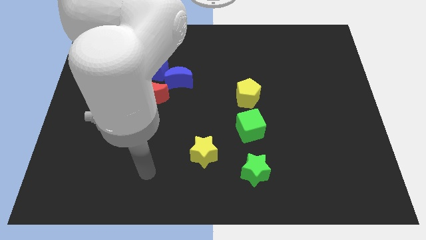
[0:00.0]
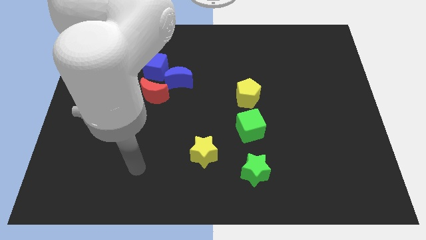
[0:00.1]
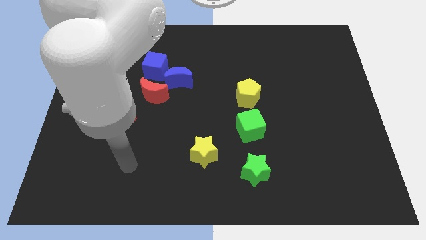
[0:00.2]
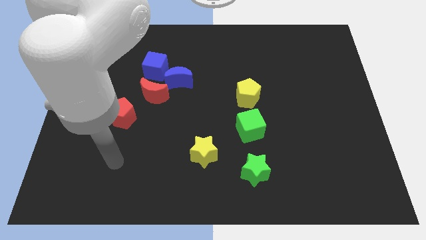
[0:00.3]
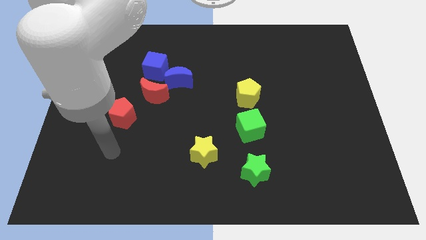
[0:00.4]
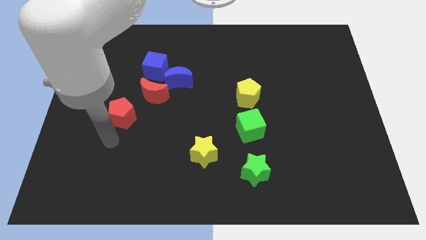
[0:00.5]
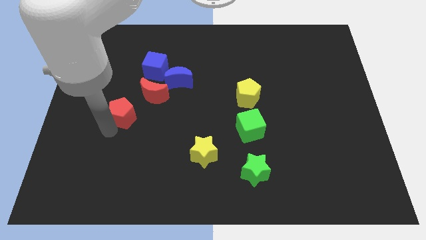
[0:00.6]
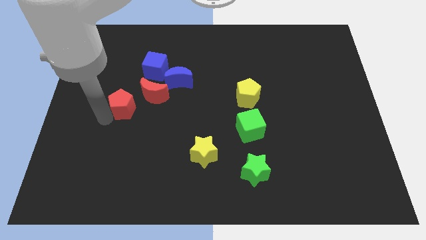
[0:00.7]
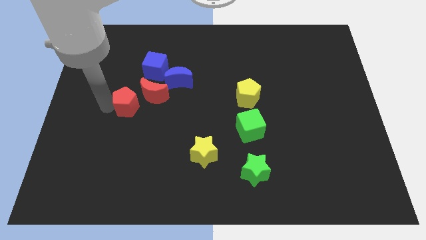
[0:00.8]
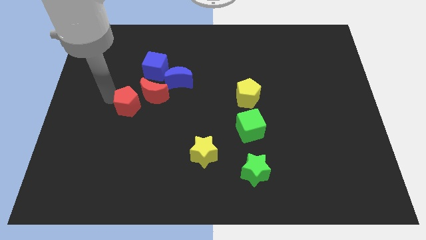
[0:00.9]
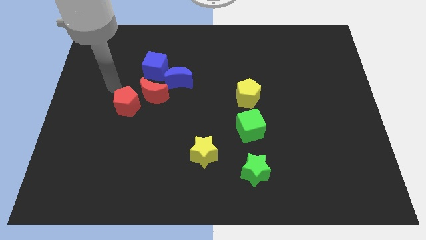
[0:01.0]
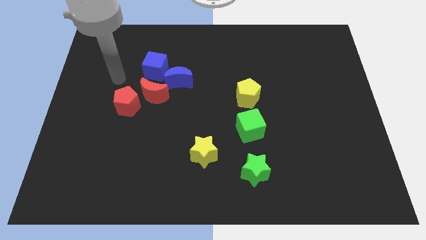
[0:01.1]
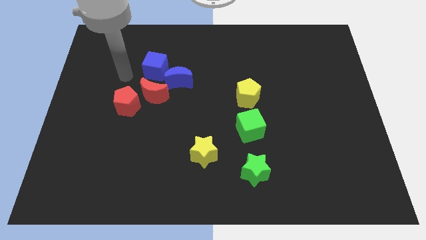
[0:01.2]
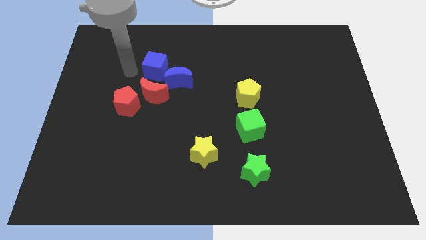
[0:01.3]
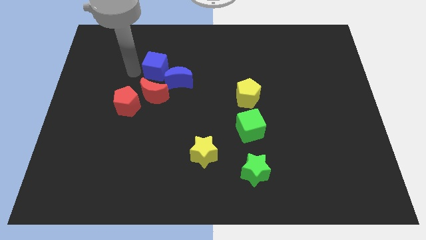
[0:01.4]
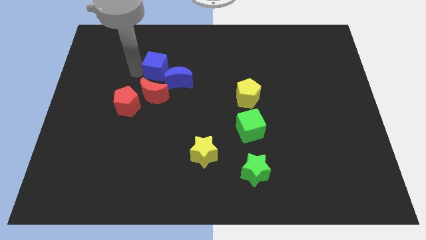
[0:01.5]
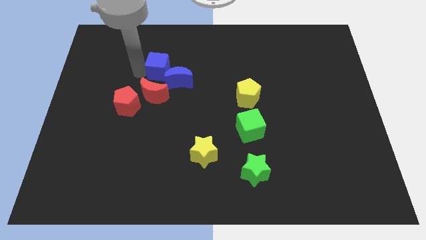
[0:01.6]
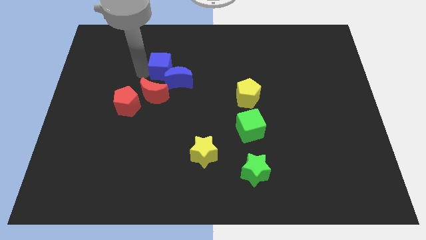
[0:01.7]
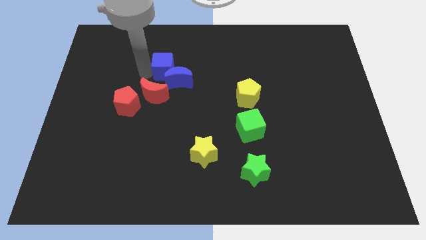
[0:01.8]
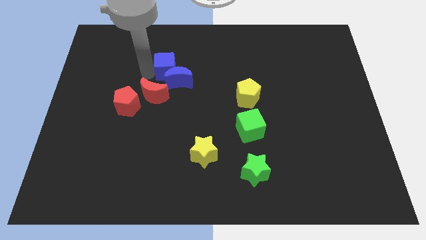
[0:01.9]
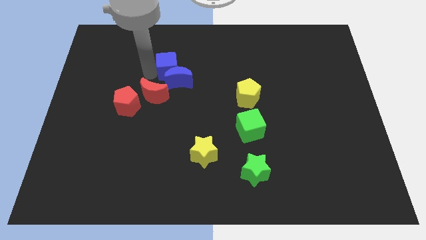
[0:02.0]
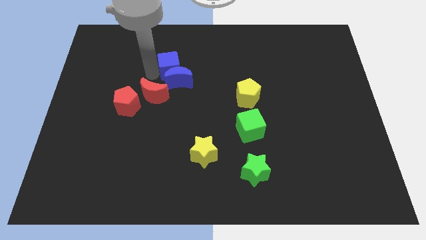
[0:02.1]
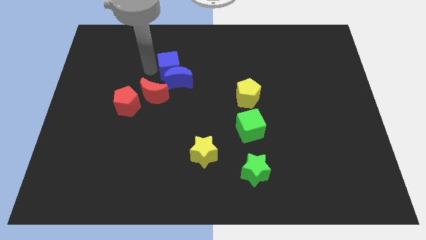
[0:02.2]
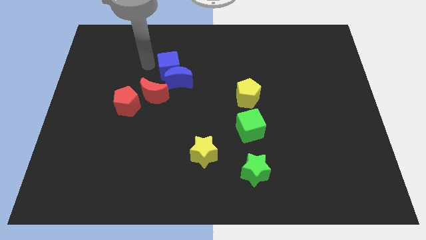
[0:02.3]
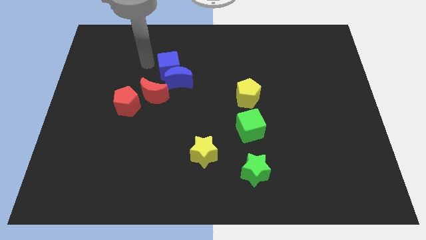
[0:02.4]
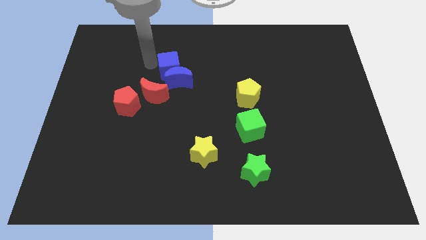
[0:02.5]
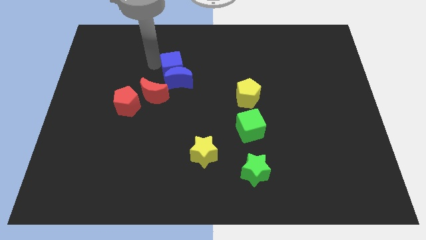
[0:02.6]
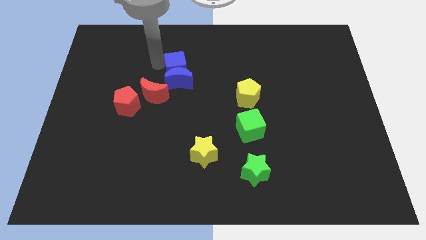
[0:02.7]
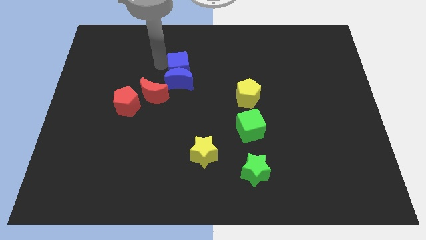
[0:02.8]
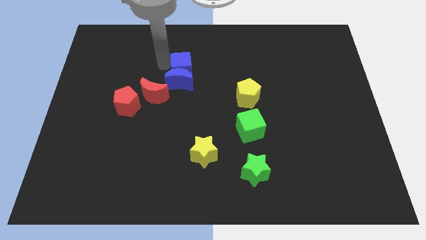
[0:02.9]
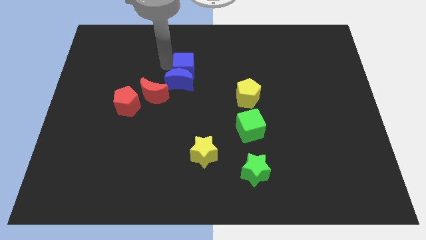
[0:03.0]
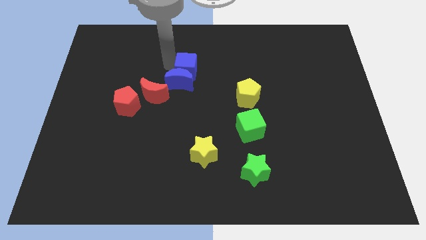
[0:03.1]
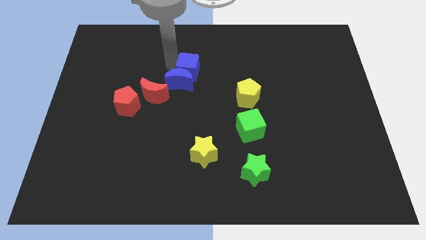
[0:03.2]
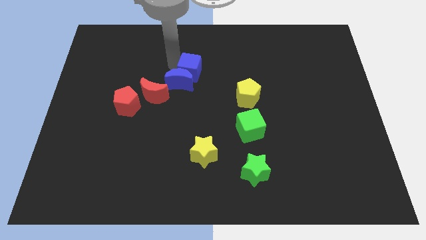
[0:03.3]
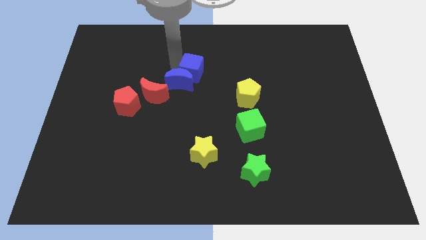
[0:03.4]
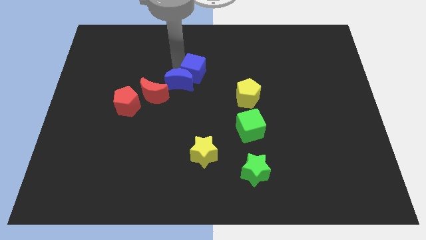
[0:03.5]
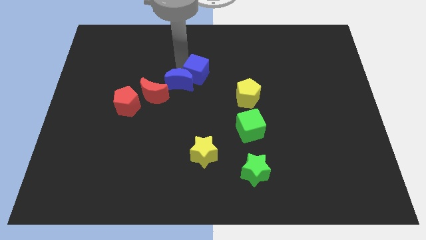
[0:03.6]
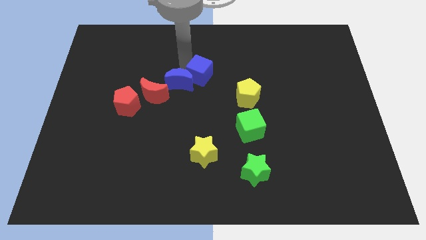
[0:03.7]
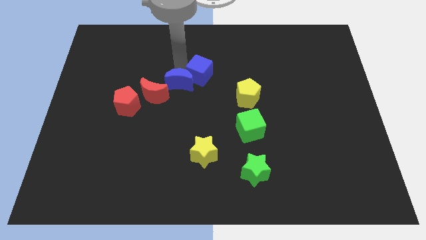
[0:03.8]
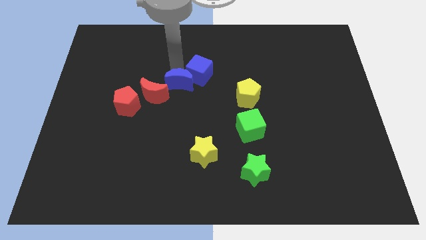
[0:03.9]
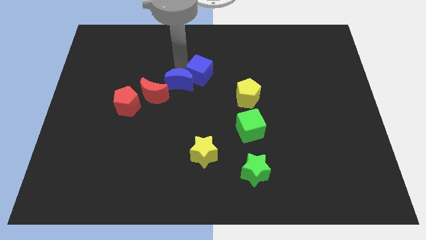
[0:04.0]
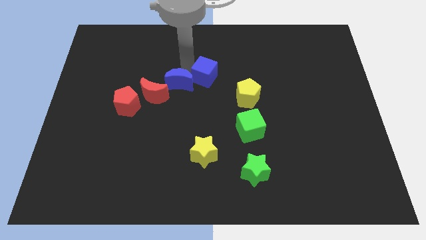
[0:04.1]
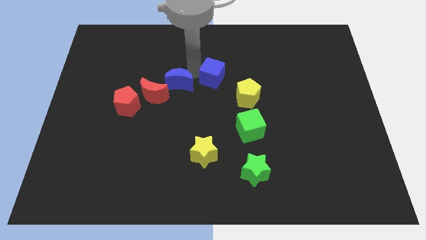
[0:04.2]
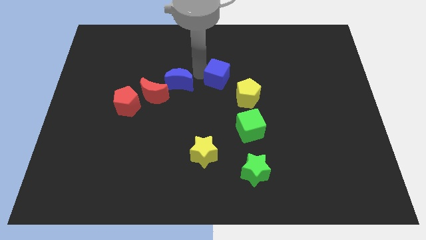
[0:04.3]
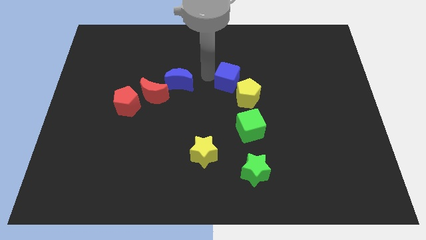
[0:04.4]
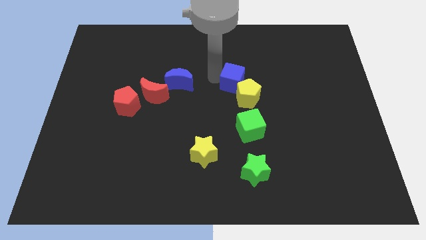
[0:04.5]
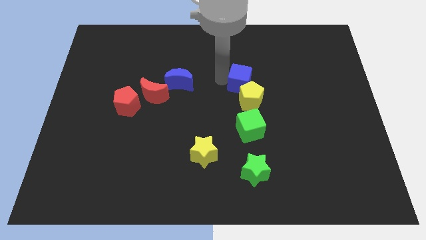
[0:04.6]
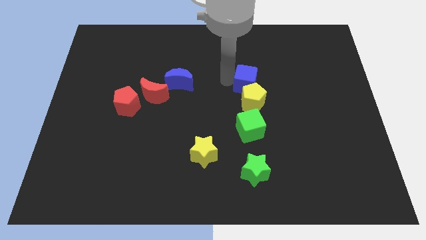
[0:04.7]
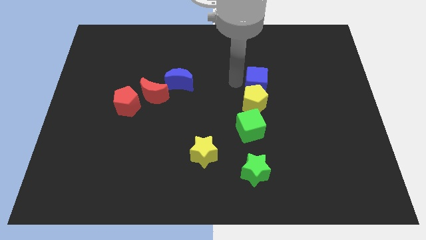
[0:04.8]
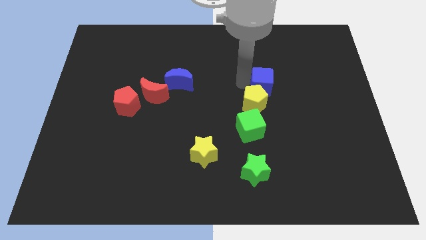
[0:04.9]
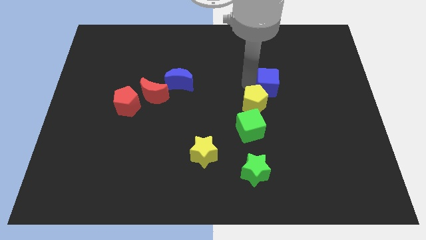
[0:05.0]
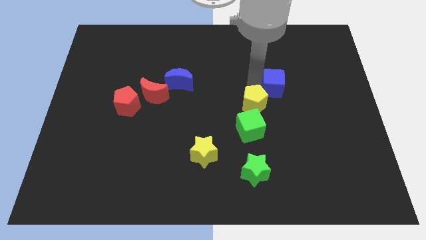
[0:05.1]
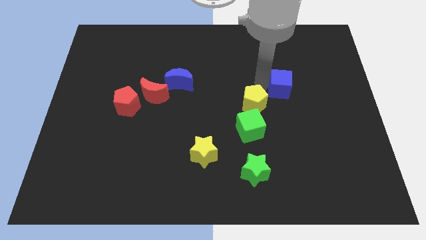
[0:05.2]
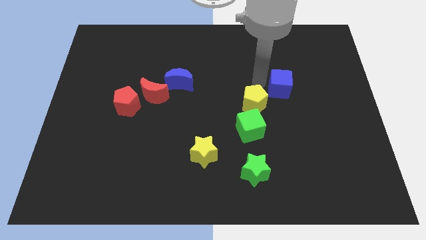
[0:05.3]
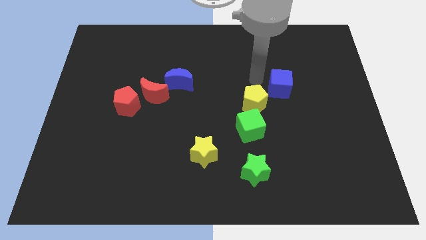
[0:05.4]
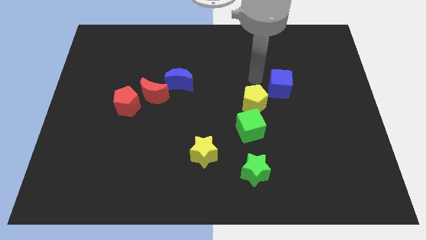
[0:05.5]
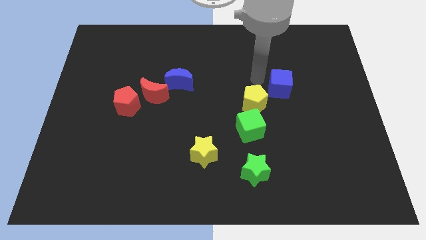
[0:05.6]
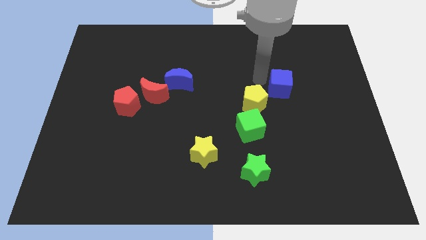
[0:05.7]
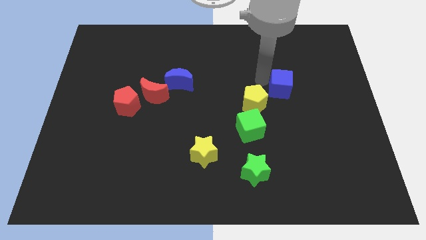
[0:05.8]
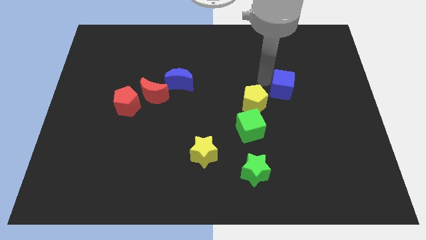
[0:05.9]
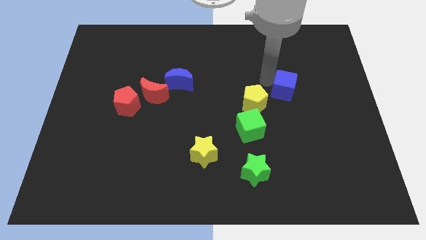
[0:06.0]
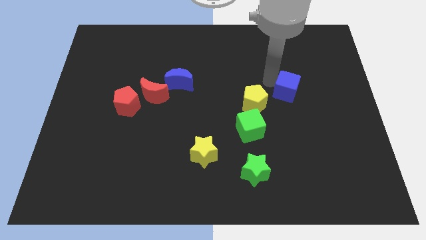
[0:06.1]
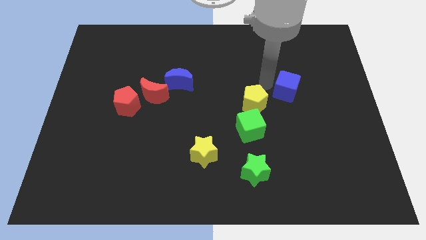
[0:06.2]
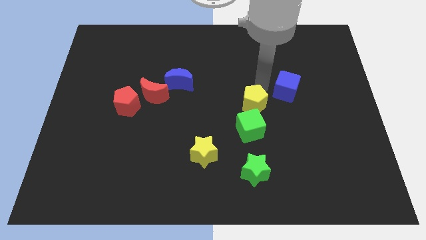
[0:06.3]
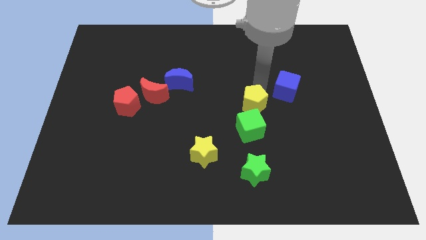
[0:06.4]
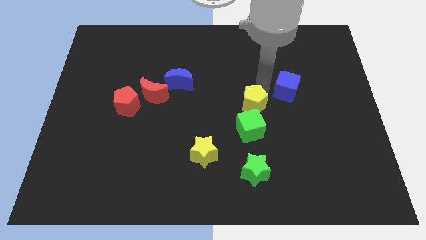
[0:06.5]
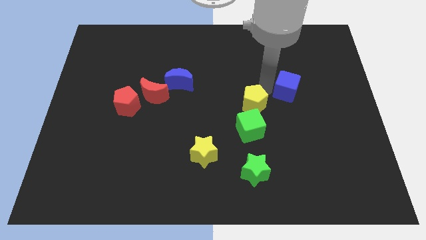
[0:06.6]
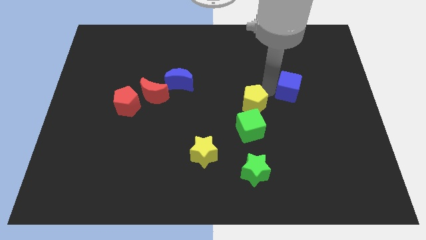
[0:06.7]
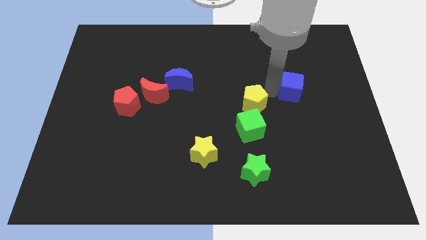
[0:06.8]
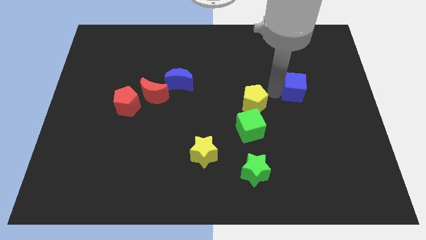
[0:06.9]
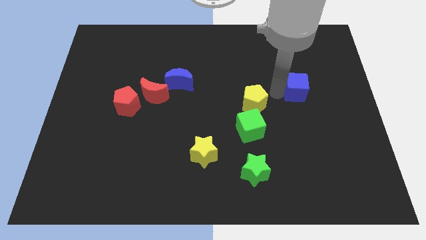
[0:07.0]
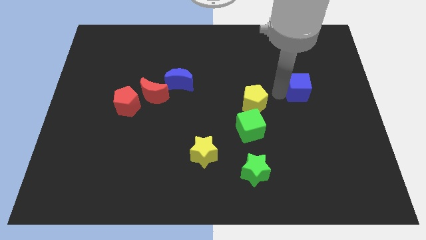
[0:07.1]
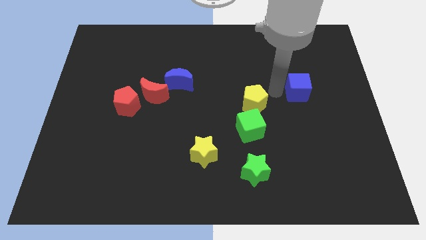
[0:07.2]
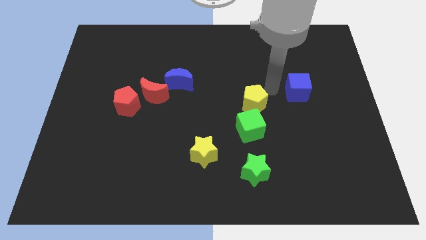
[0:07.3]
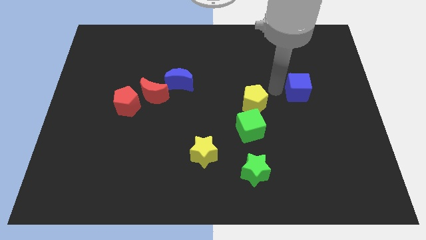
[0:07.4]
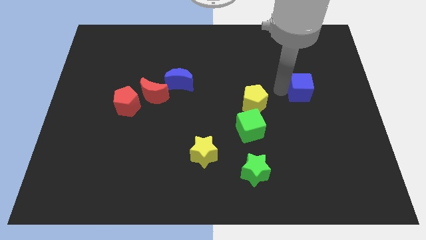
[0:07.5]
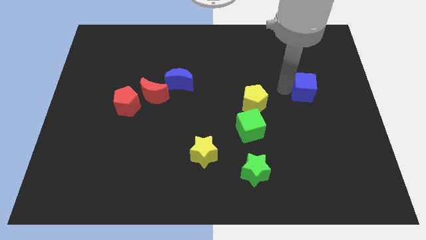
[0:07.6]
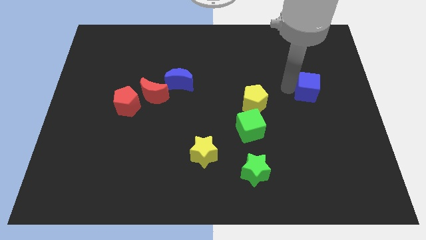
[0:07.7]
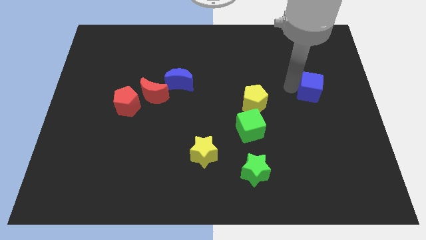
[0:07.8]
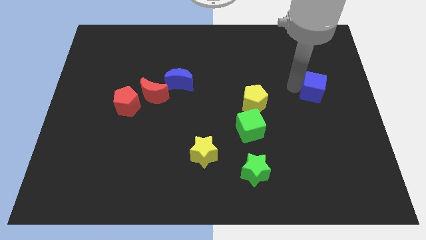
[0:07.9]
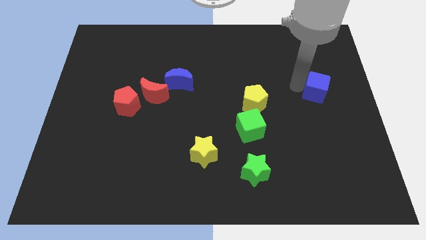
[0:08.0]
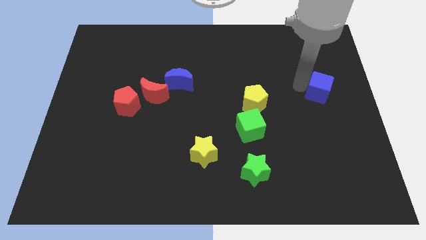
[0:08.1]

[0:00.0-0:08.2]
put the blue cube to the center right
